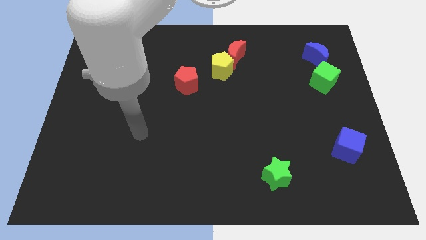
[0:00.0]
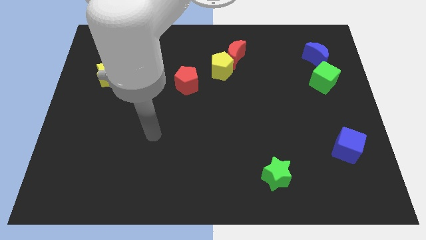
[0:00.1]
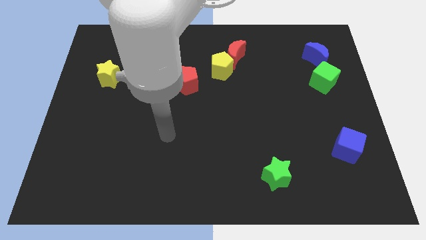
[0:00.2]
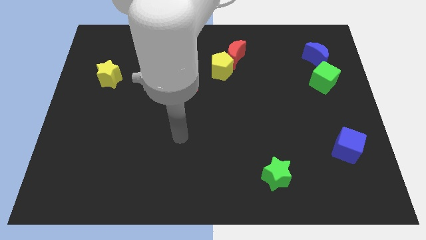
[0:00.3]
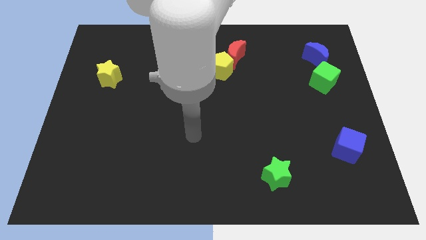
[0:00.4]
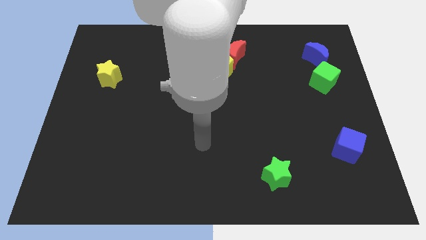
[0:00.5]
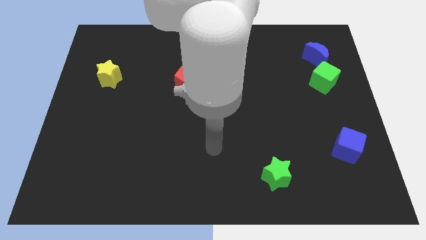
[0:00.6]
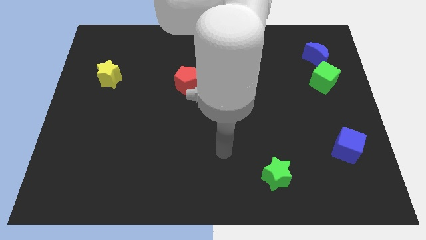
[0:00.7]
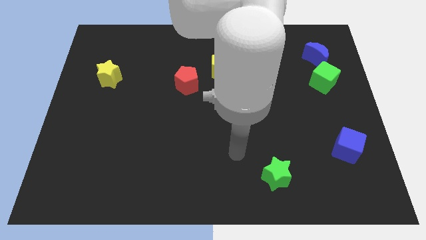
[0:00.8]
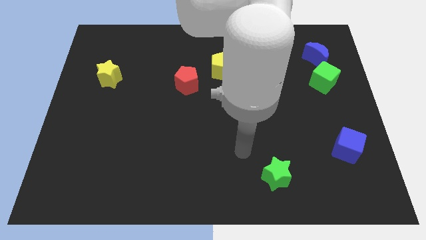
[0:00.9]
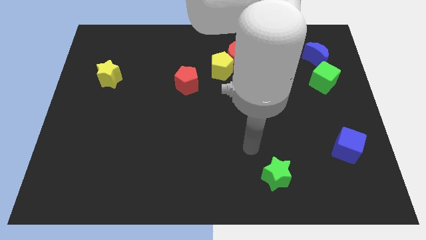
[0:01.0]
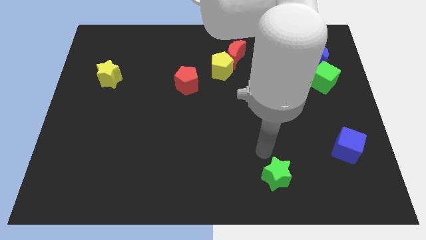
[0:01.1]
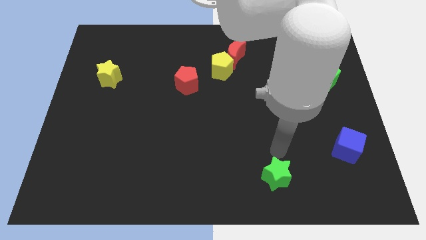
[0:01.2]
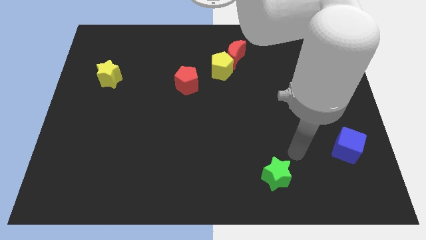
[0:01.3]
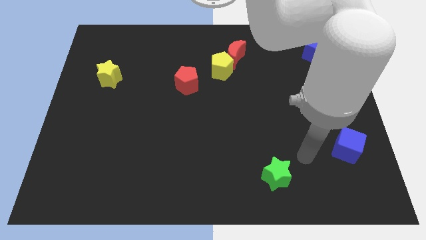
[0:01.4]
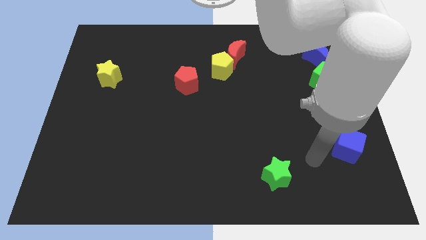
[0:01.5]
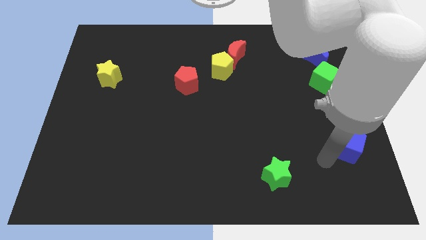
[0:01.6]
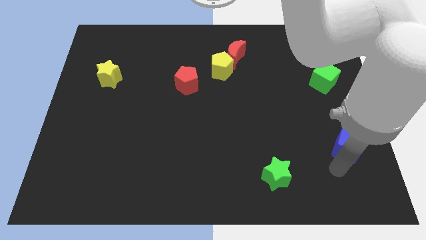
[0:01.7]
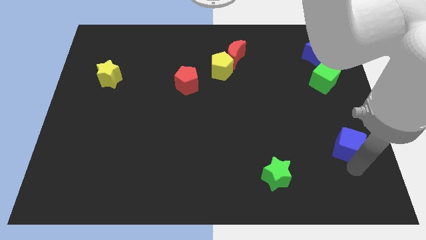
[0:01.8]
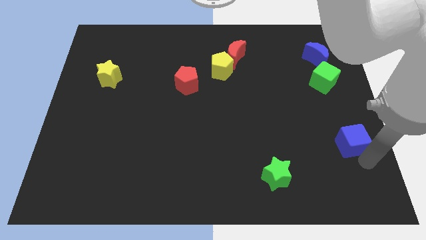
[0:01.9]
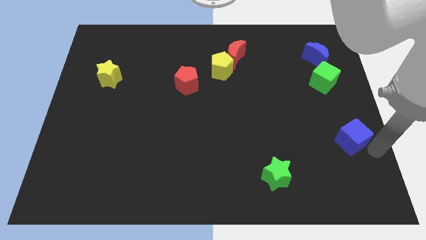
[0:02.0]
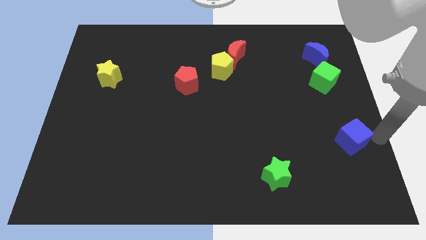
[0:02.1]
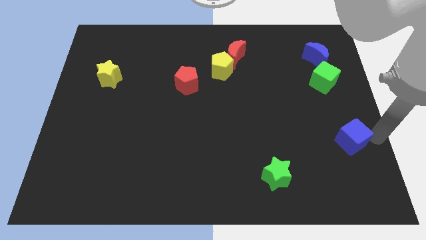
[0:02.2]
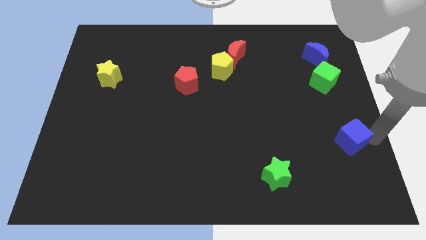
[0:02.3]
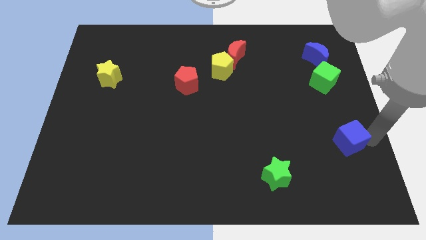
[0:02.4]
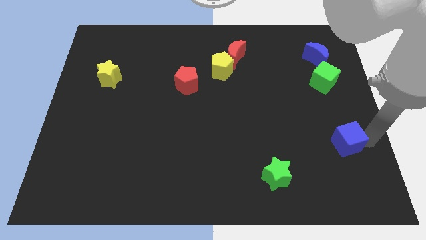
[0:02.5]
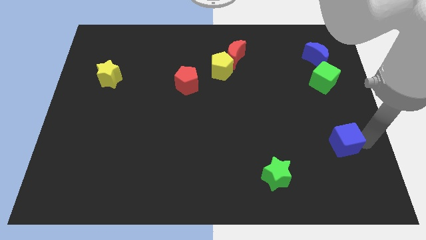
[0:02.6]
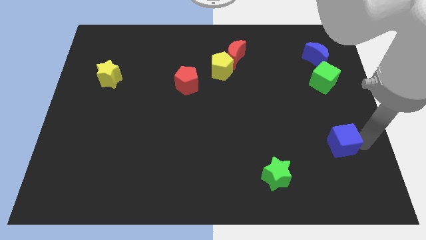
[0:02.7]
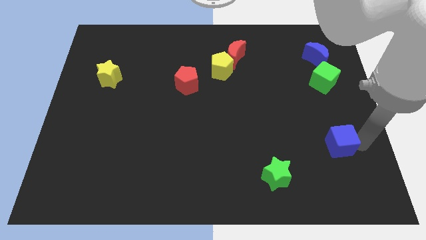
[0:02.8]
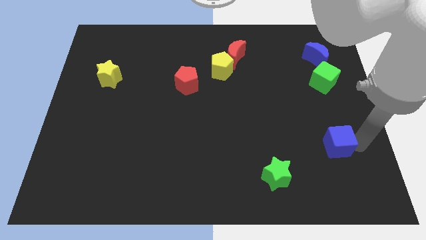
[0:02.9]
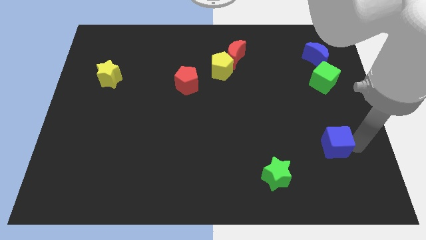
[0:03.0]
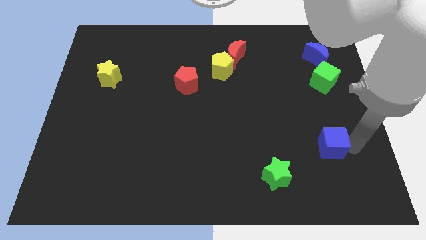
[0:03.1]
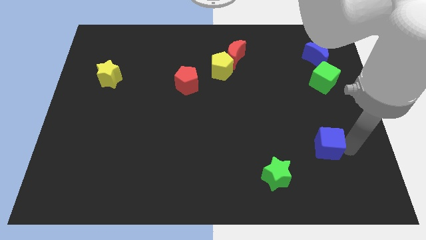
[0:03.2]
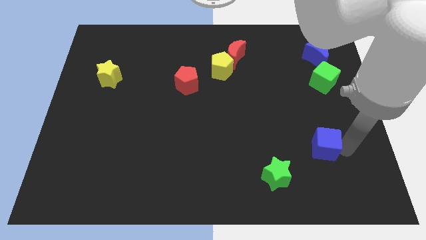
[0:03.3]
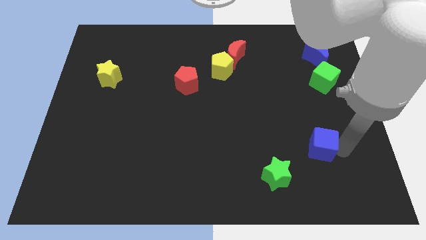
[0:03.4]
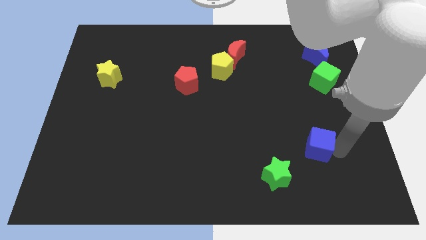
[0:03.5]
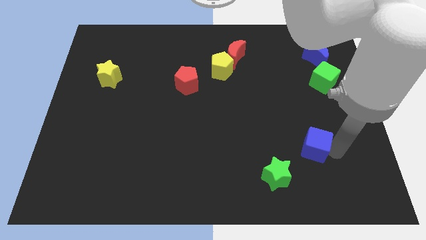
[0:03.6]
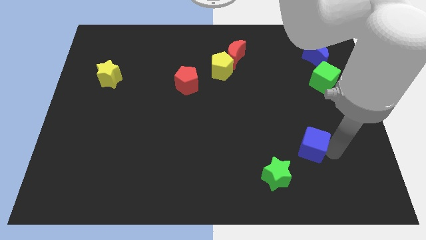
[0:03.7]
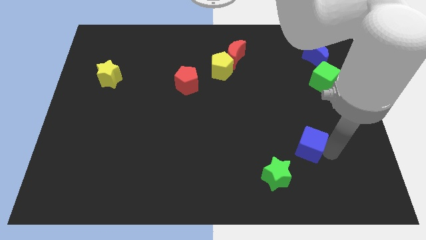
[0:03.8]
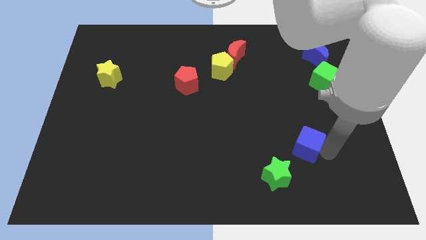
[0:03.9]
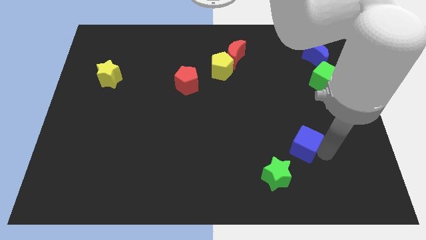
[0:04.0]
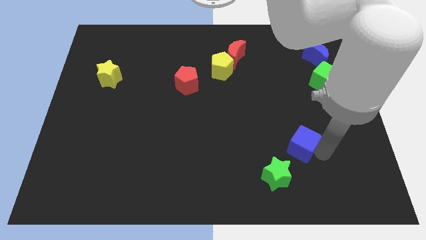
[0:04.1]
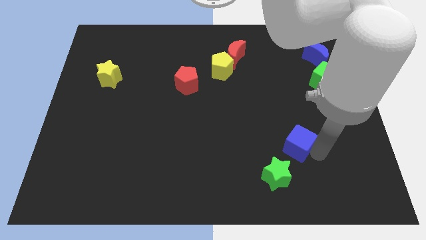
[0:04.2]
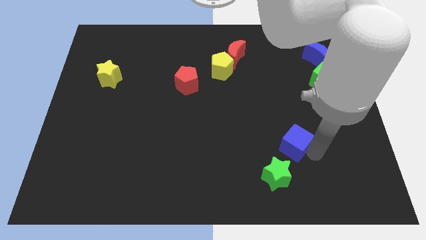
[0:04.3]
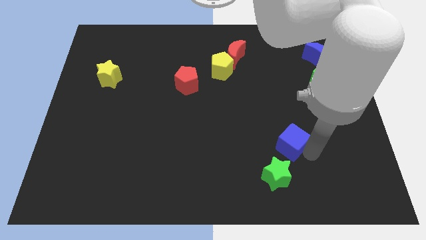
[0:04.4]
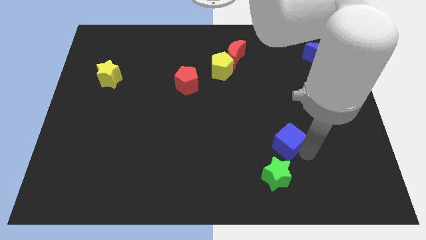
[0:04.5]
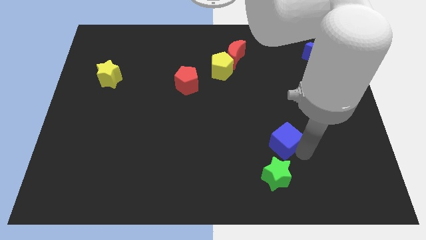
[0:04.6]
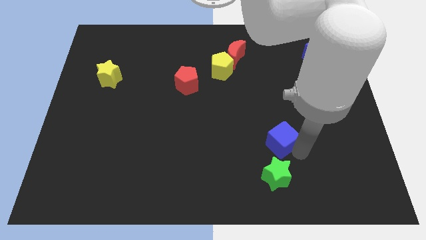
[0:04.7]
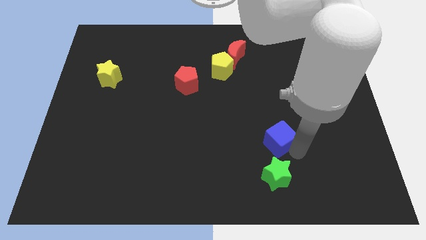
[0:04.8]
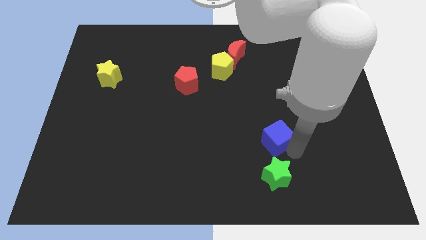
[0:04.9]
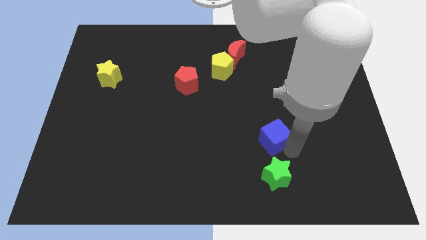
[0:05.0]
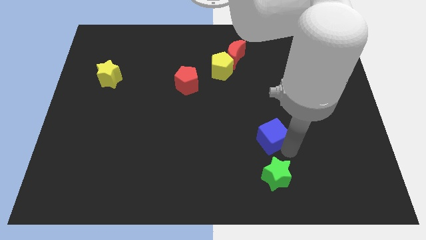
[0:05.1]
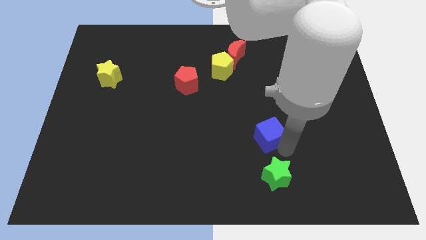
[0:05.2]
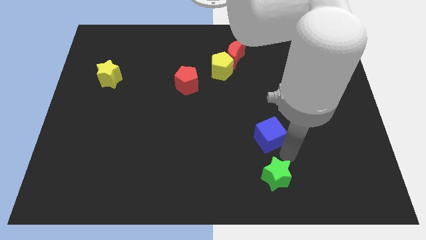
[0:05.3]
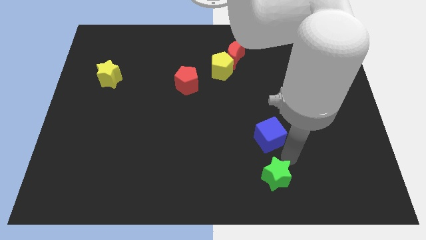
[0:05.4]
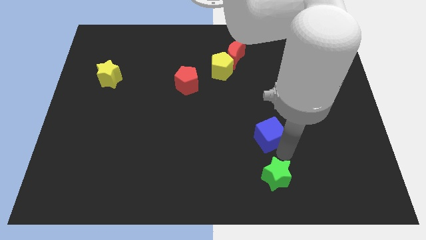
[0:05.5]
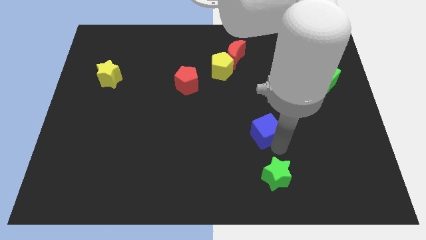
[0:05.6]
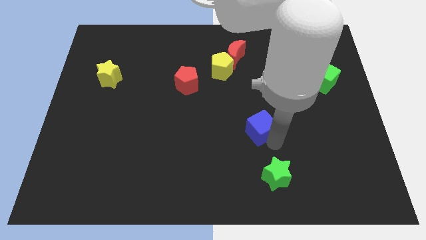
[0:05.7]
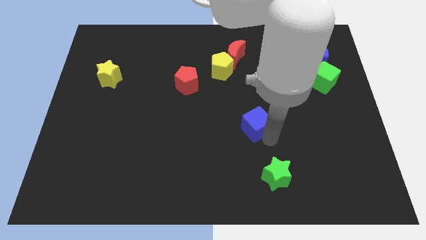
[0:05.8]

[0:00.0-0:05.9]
push the blue cube to the center of the board

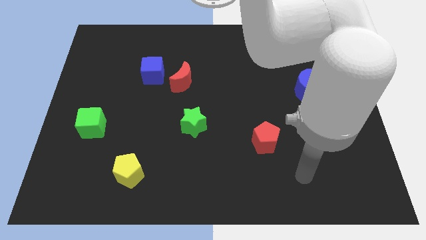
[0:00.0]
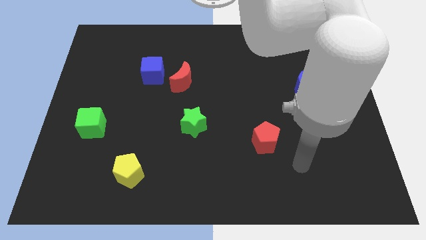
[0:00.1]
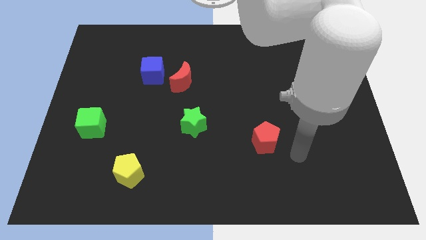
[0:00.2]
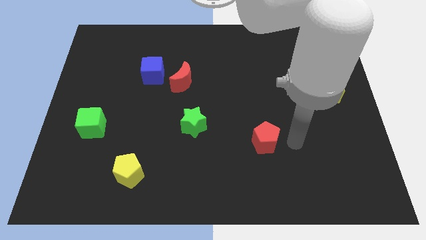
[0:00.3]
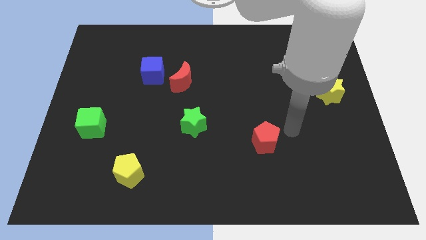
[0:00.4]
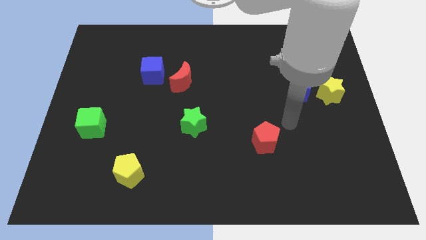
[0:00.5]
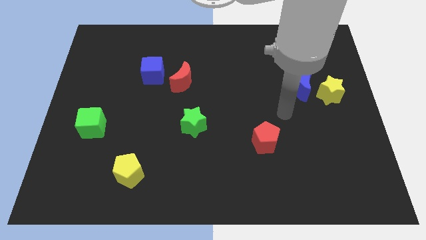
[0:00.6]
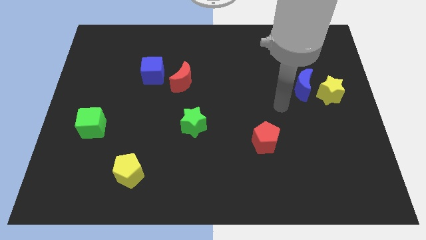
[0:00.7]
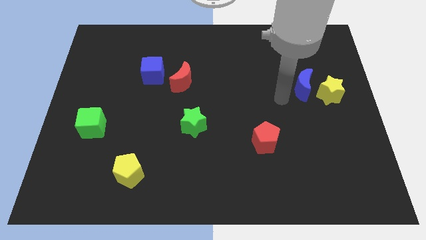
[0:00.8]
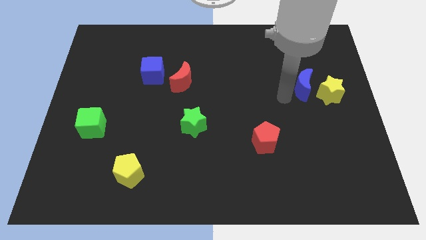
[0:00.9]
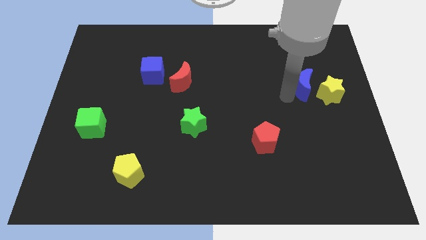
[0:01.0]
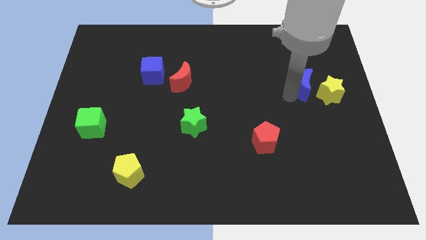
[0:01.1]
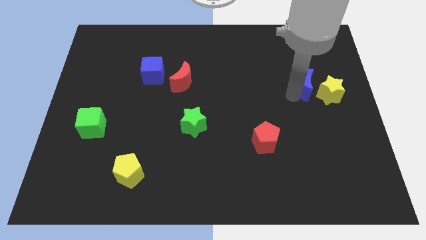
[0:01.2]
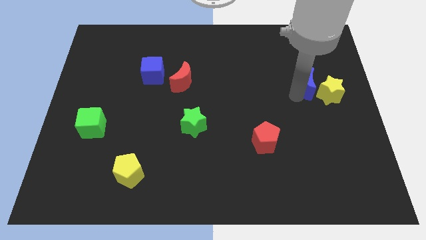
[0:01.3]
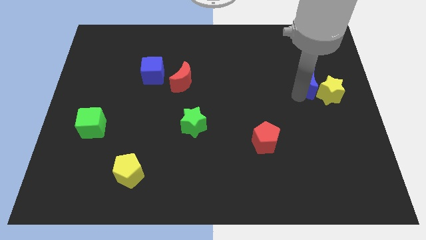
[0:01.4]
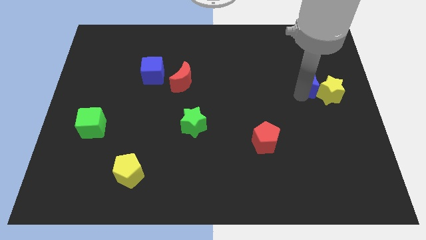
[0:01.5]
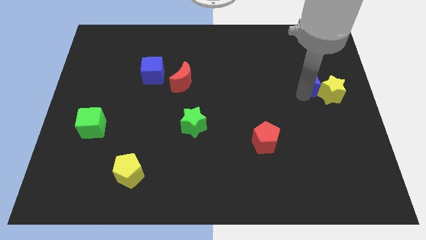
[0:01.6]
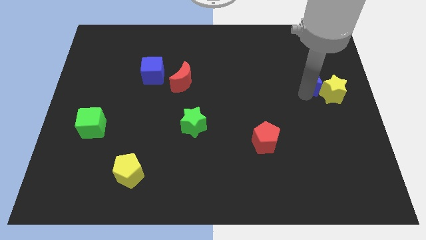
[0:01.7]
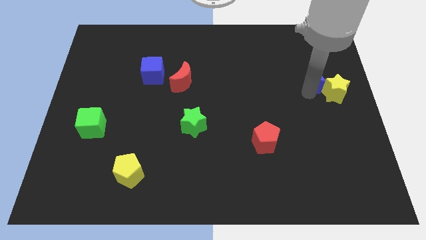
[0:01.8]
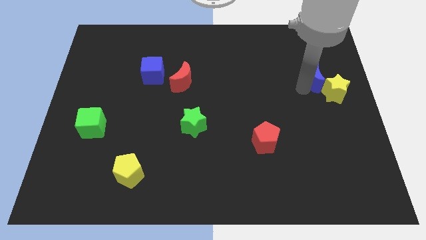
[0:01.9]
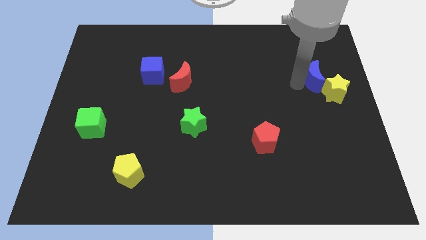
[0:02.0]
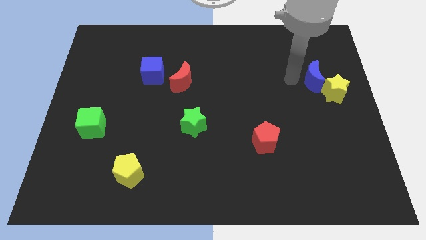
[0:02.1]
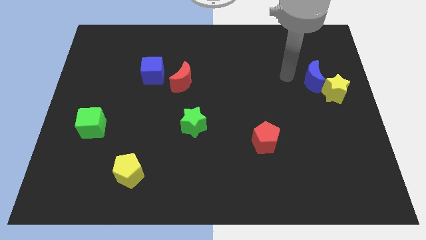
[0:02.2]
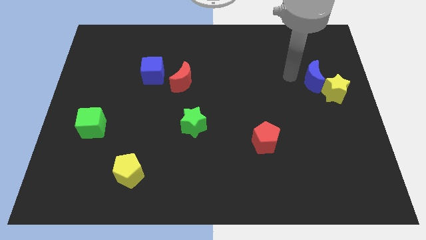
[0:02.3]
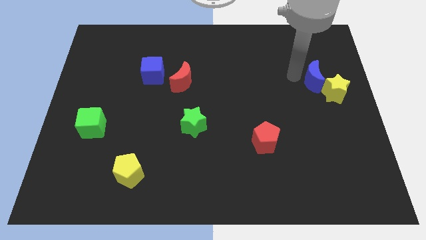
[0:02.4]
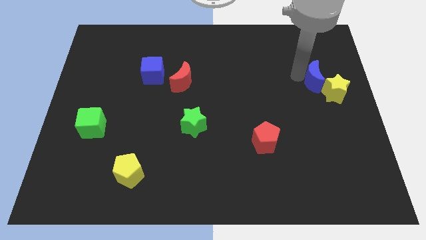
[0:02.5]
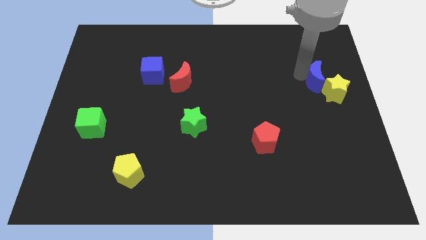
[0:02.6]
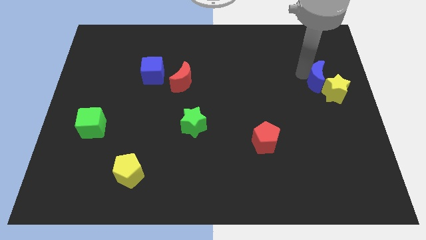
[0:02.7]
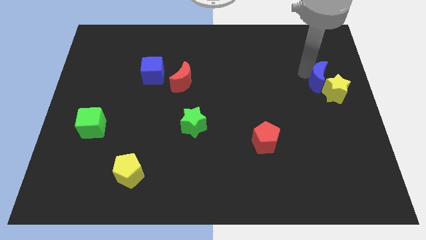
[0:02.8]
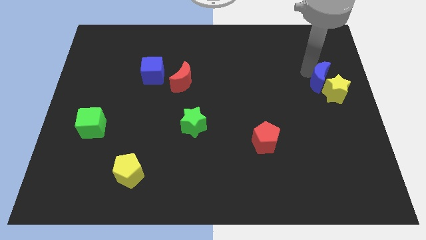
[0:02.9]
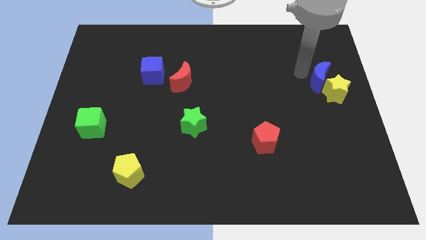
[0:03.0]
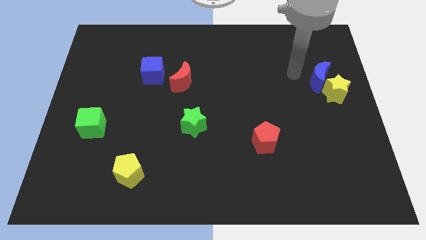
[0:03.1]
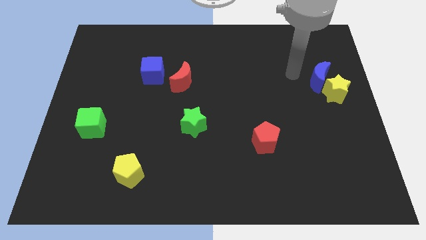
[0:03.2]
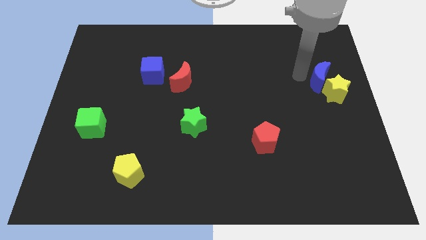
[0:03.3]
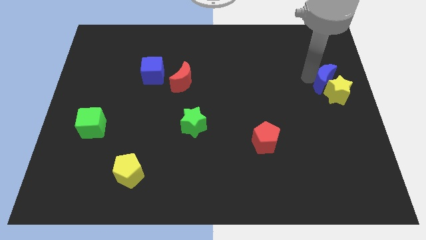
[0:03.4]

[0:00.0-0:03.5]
slide the blue moon to the right side
